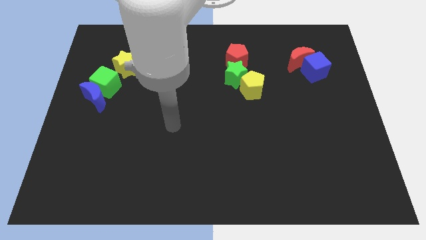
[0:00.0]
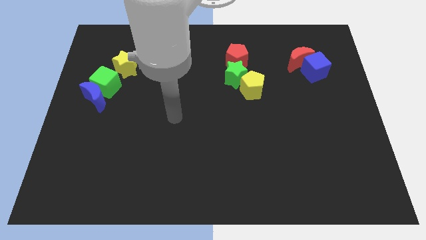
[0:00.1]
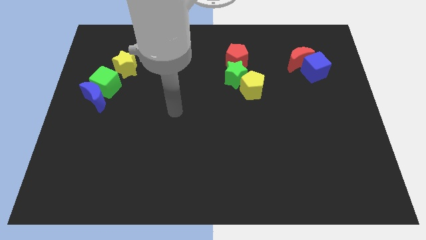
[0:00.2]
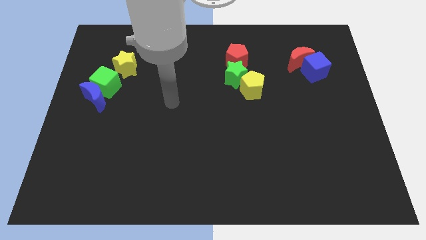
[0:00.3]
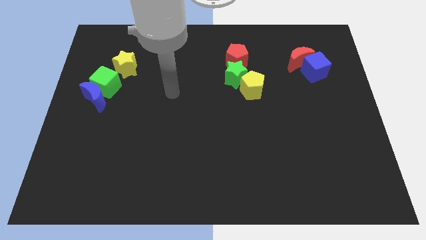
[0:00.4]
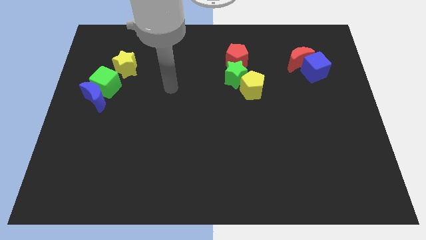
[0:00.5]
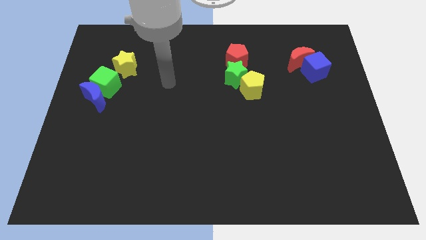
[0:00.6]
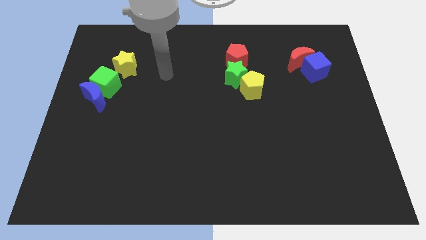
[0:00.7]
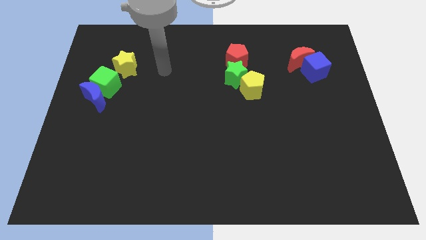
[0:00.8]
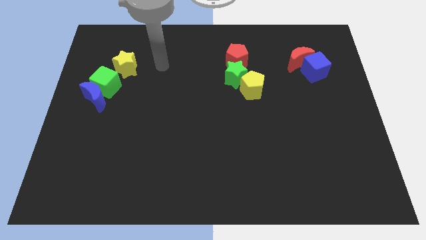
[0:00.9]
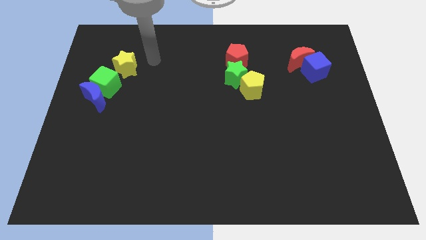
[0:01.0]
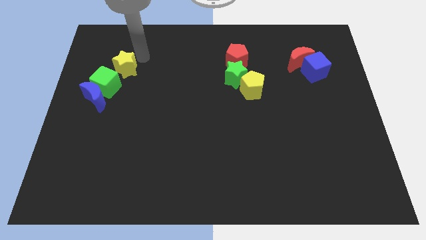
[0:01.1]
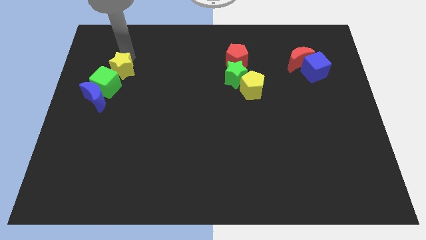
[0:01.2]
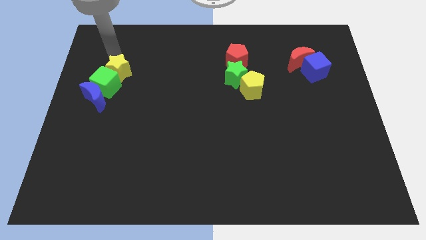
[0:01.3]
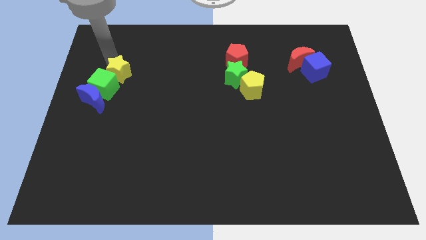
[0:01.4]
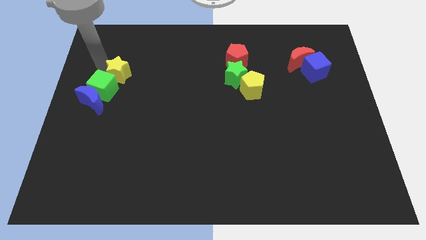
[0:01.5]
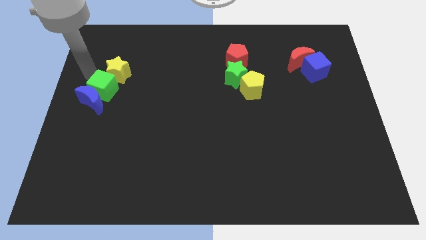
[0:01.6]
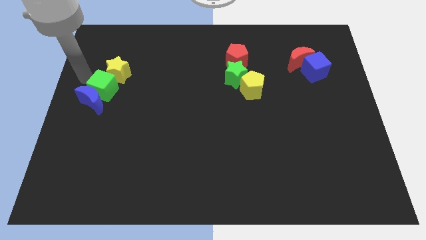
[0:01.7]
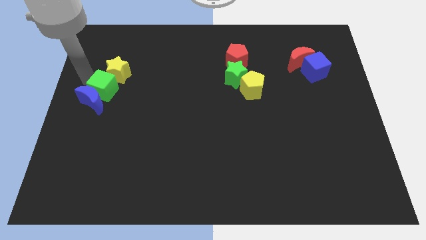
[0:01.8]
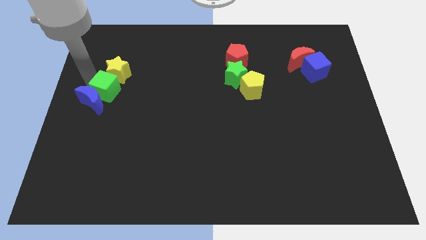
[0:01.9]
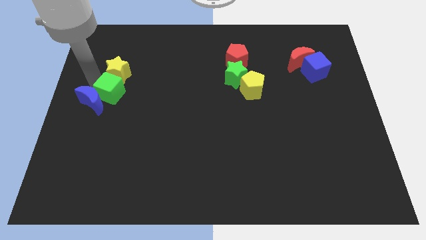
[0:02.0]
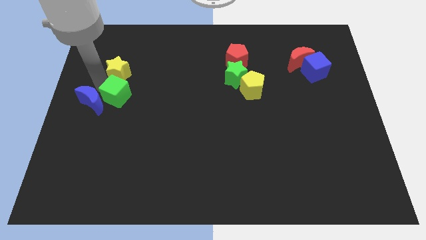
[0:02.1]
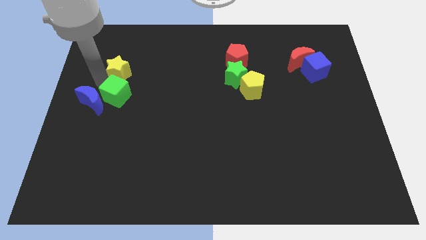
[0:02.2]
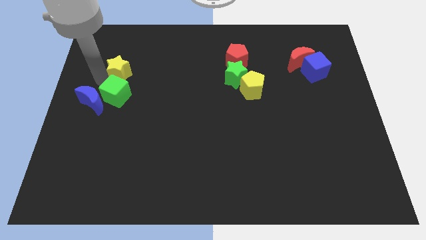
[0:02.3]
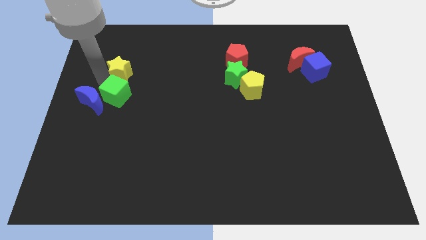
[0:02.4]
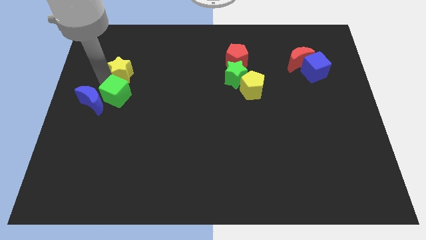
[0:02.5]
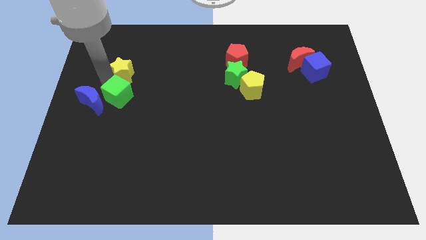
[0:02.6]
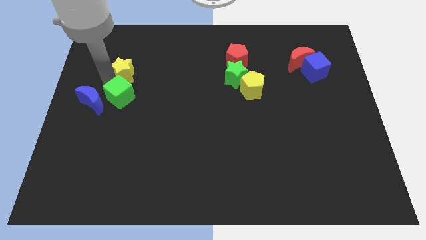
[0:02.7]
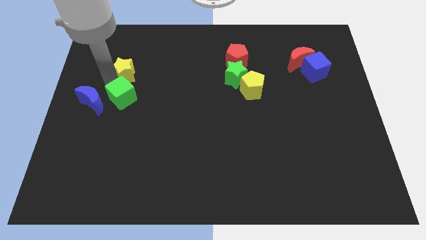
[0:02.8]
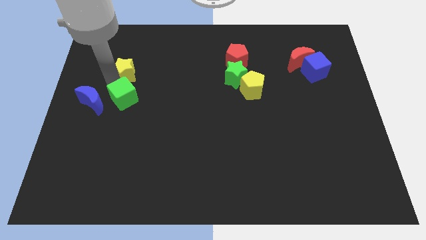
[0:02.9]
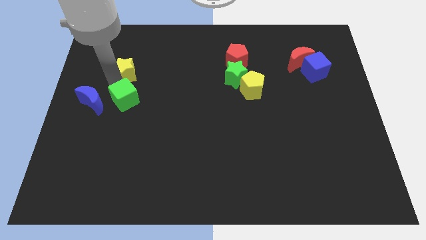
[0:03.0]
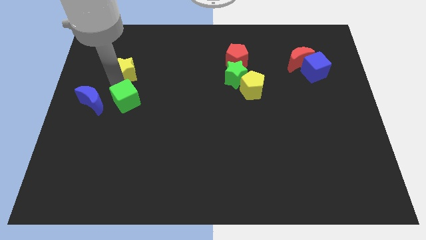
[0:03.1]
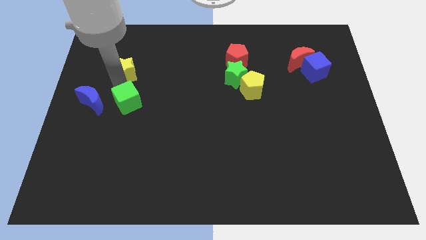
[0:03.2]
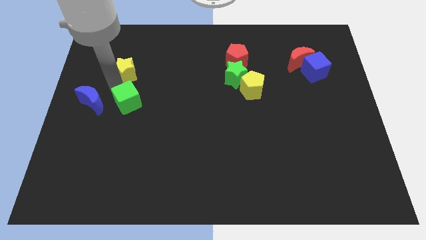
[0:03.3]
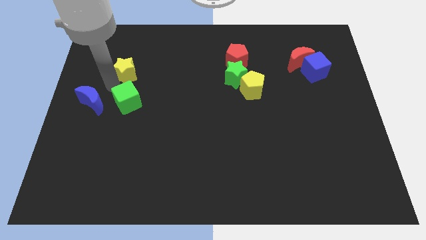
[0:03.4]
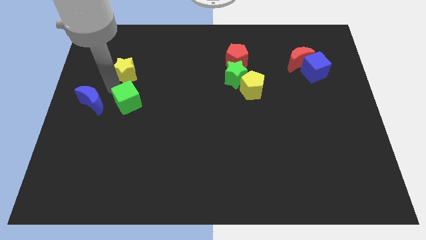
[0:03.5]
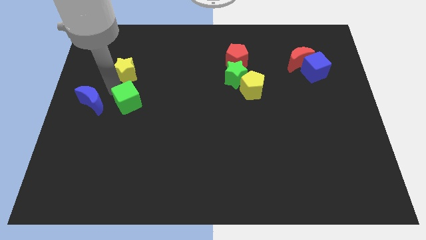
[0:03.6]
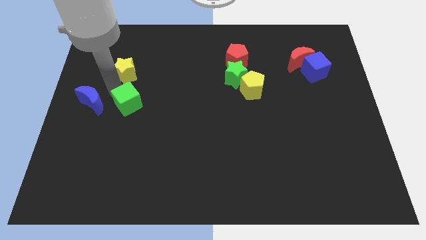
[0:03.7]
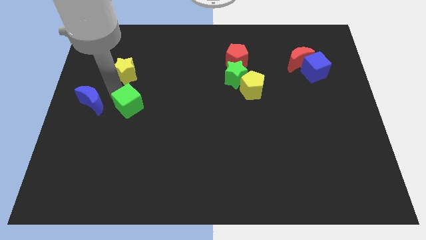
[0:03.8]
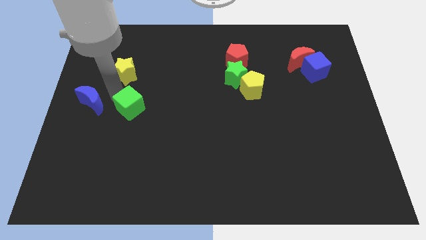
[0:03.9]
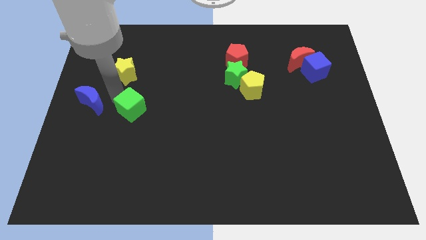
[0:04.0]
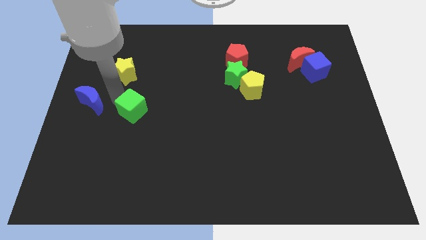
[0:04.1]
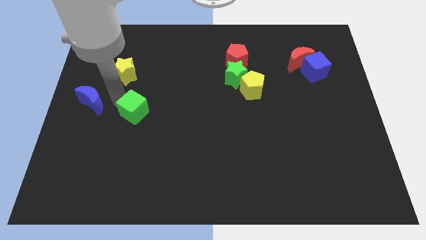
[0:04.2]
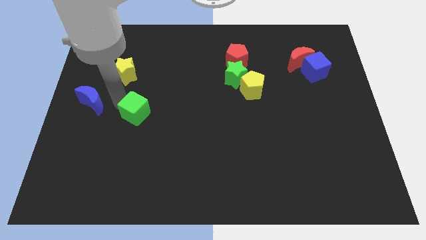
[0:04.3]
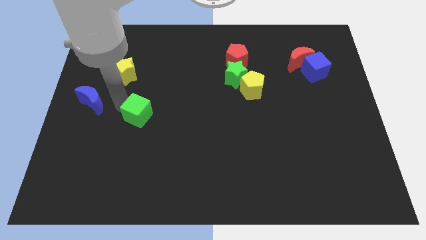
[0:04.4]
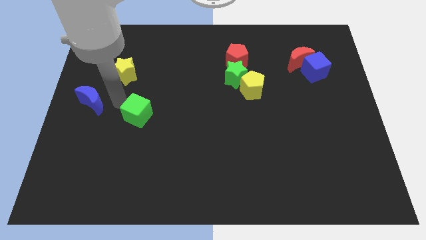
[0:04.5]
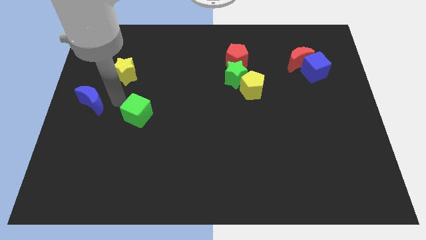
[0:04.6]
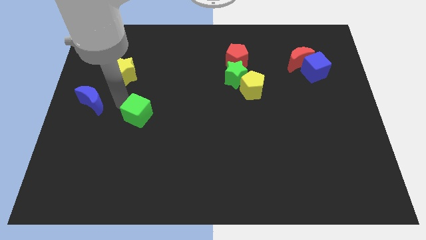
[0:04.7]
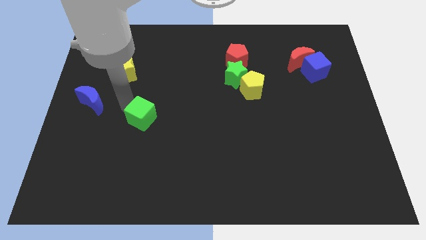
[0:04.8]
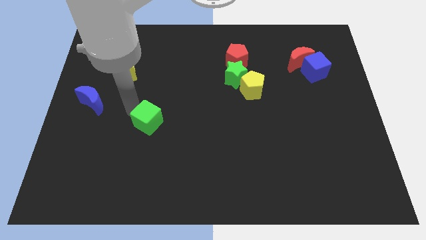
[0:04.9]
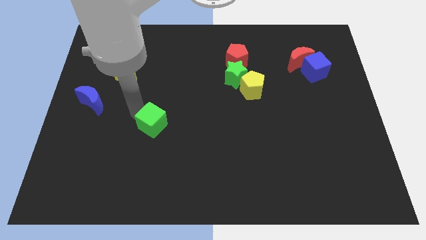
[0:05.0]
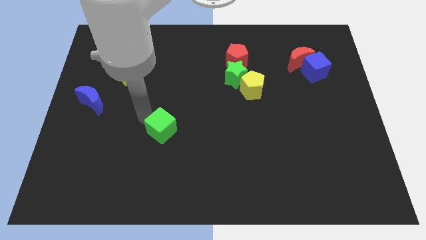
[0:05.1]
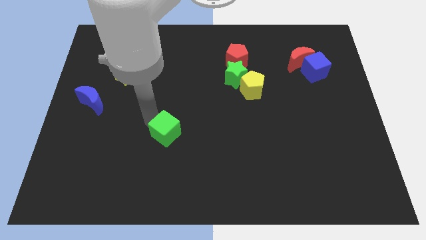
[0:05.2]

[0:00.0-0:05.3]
push the green cube downwards and to the right

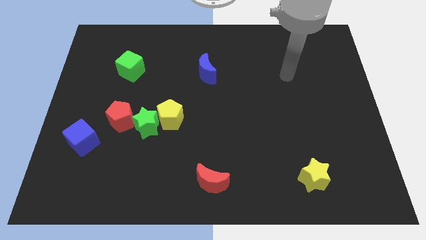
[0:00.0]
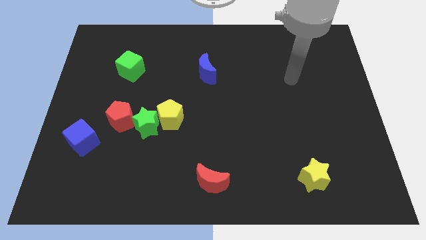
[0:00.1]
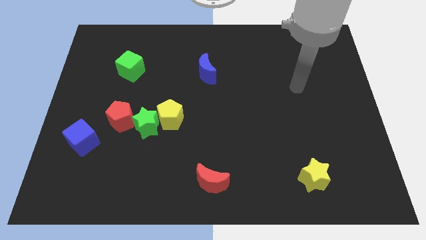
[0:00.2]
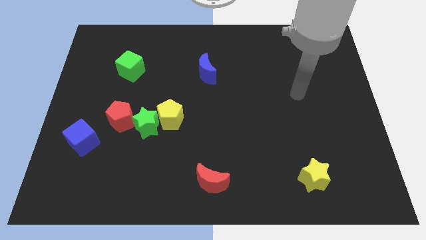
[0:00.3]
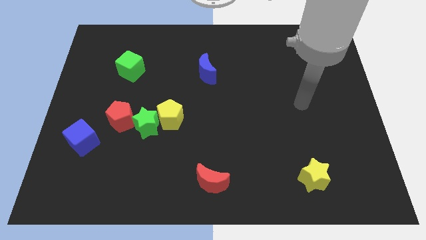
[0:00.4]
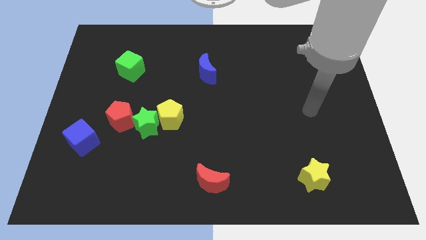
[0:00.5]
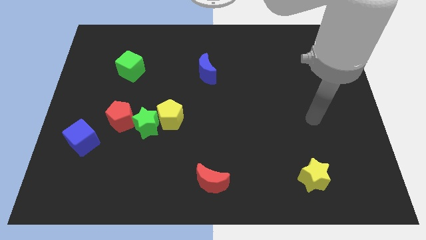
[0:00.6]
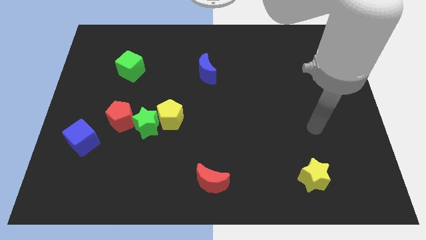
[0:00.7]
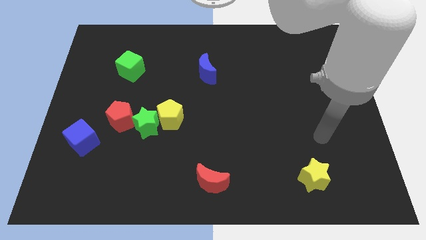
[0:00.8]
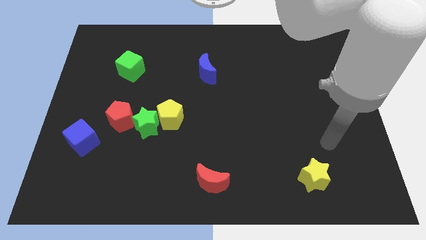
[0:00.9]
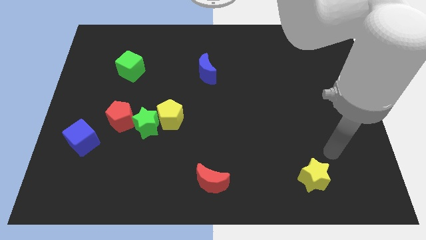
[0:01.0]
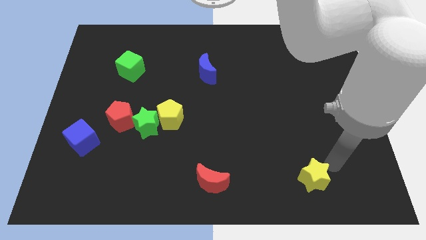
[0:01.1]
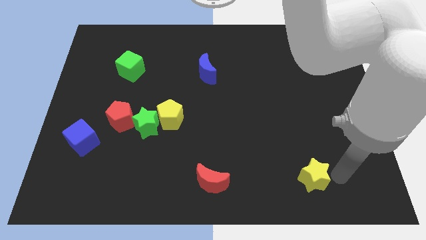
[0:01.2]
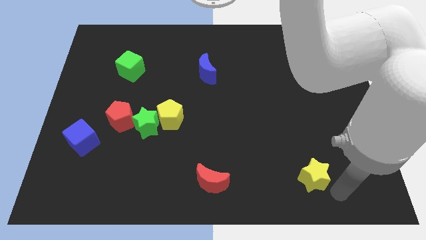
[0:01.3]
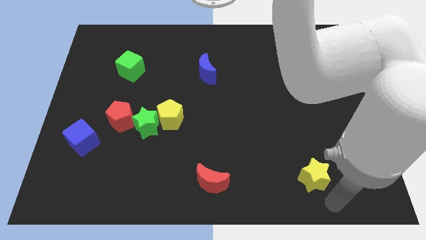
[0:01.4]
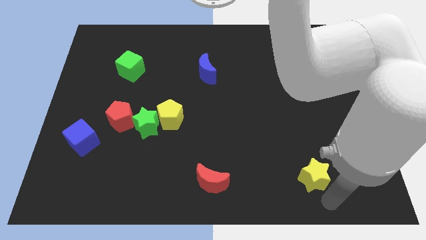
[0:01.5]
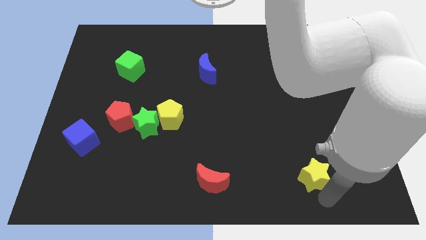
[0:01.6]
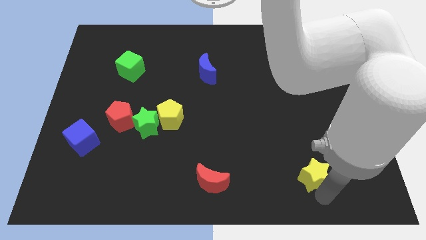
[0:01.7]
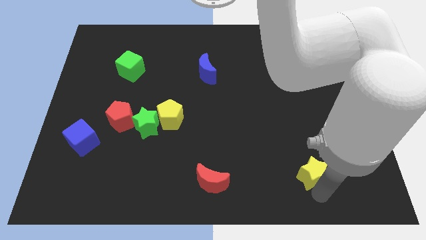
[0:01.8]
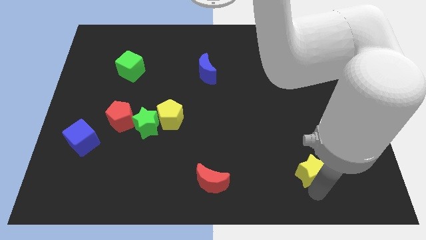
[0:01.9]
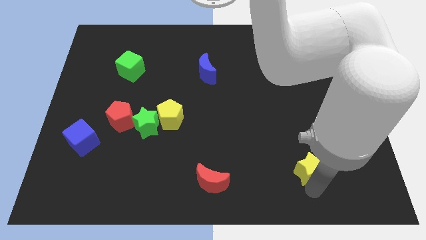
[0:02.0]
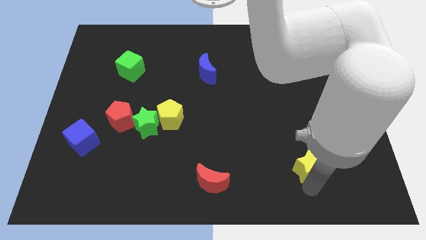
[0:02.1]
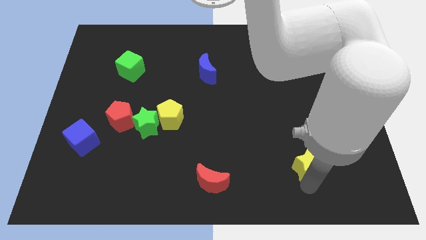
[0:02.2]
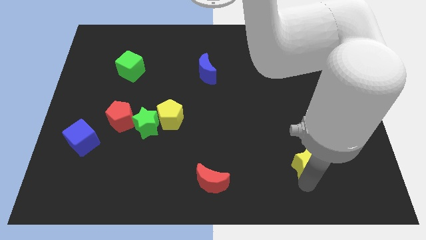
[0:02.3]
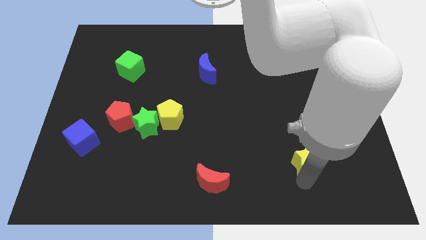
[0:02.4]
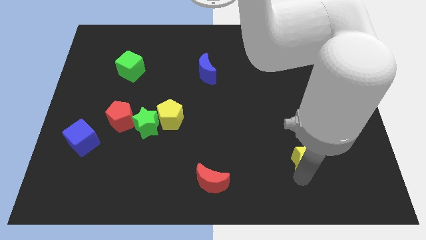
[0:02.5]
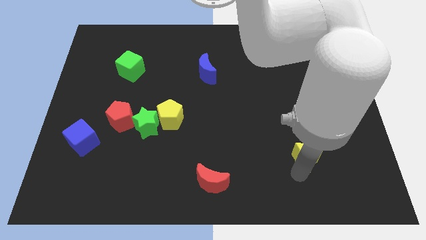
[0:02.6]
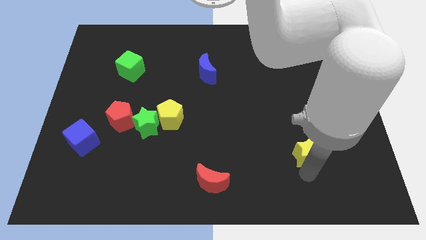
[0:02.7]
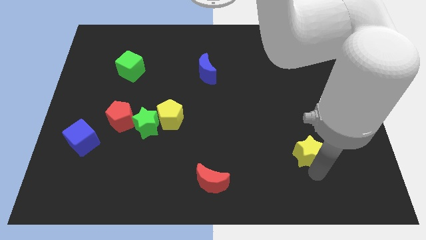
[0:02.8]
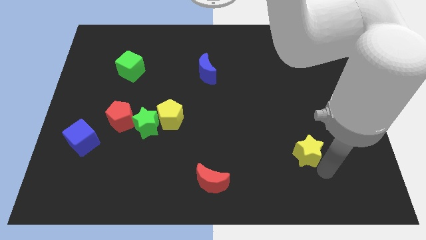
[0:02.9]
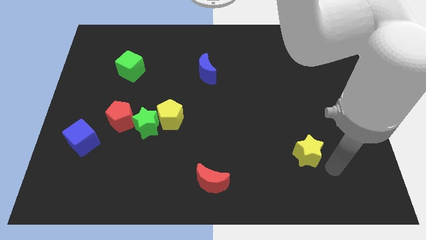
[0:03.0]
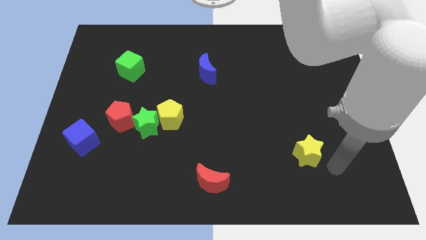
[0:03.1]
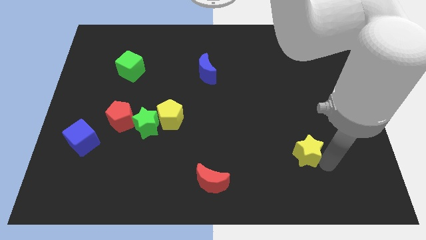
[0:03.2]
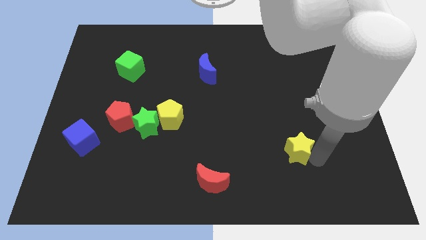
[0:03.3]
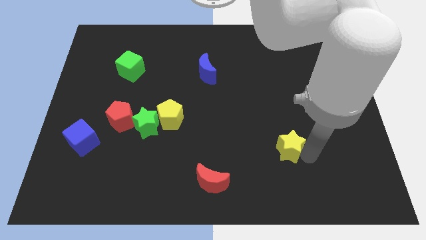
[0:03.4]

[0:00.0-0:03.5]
slightly slide the yellow star upwards and left diagonally
